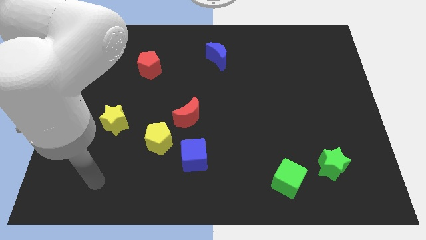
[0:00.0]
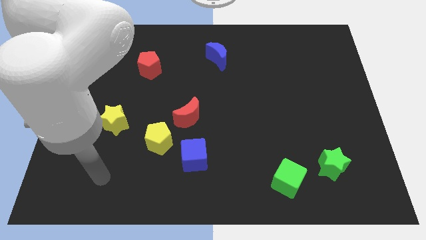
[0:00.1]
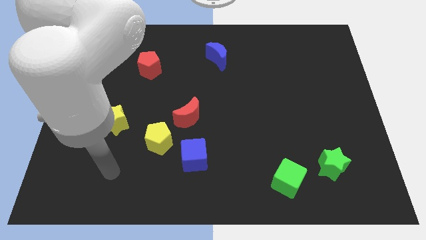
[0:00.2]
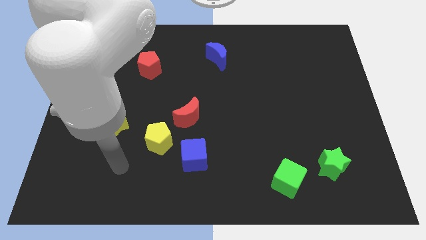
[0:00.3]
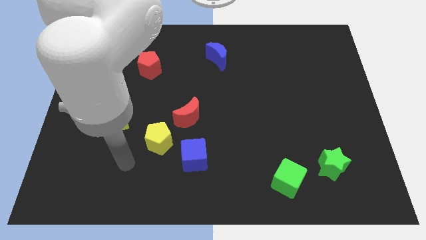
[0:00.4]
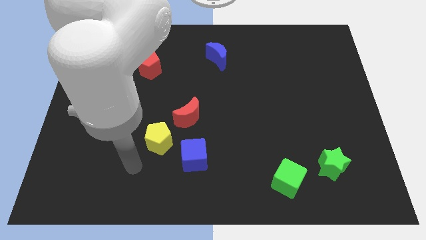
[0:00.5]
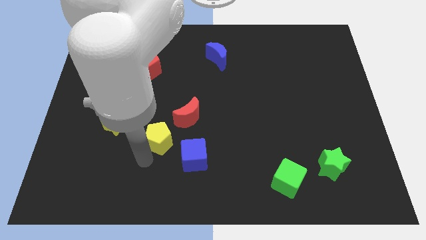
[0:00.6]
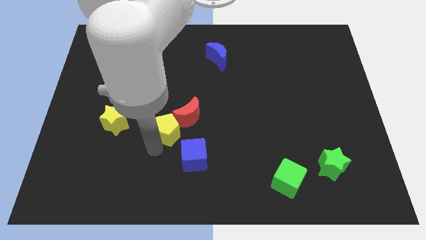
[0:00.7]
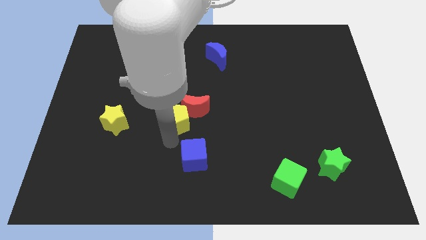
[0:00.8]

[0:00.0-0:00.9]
separate the blue cube from the yellow pentagon

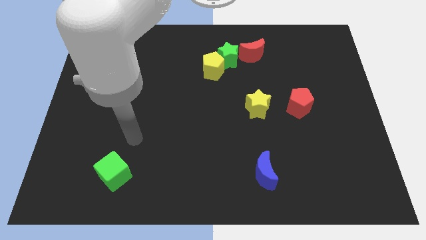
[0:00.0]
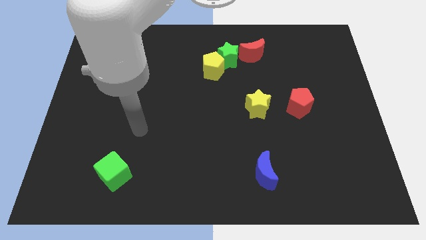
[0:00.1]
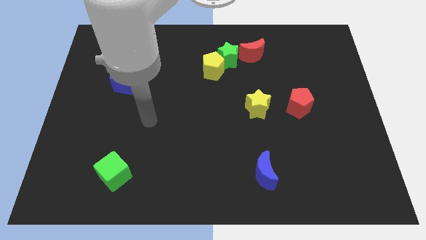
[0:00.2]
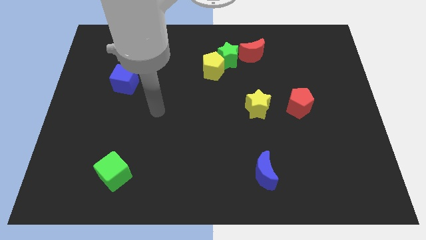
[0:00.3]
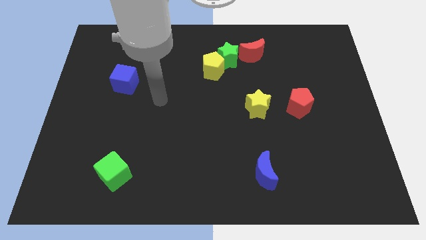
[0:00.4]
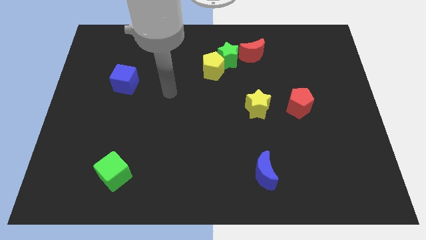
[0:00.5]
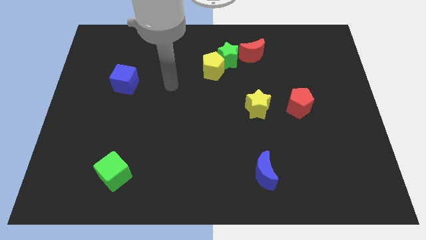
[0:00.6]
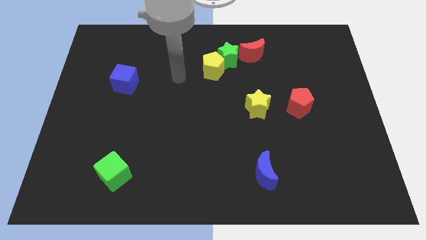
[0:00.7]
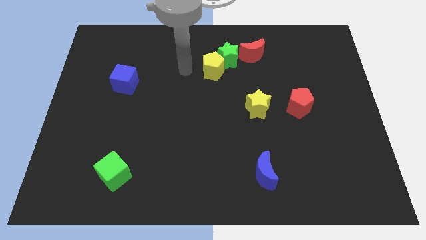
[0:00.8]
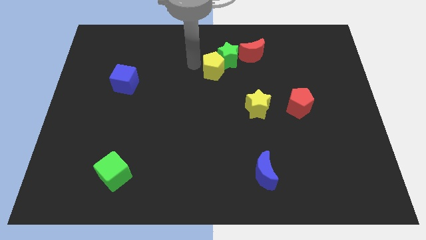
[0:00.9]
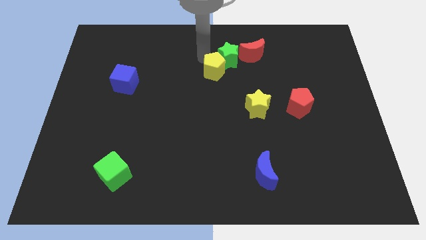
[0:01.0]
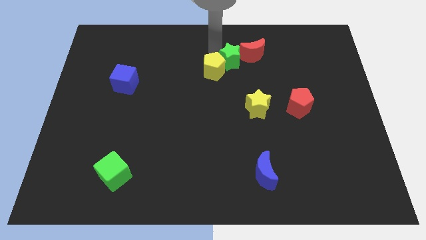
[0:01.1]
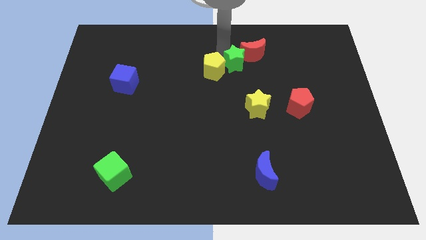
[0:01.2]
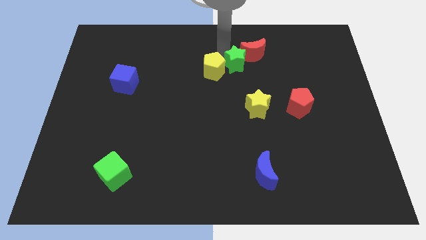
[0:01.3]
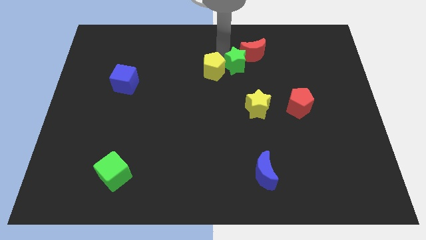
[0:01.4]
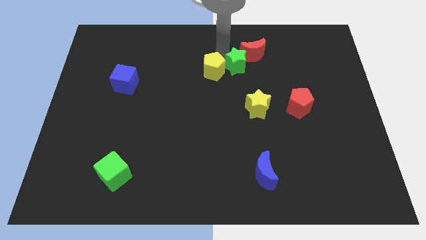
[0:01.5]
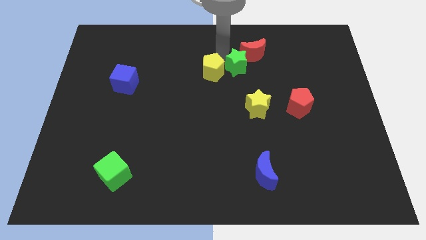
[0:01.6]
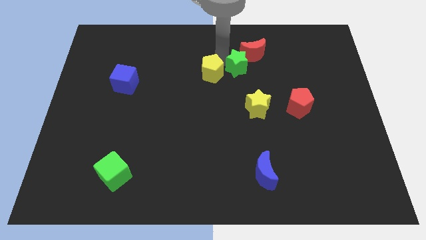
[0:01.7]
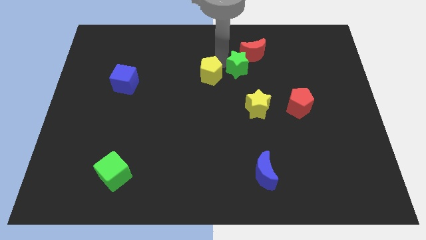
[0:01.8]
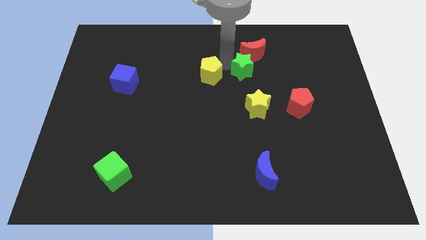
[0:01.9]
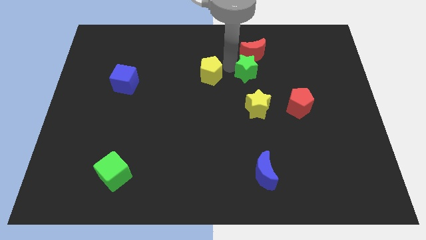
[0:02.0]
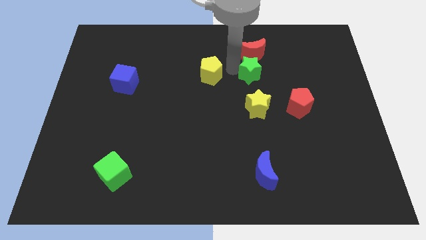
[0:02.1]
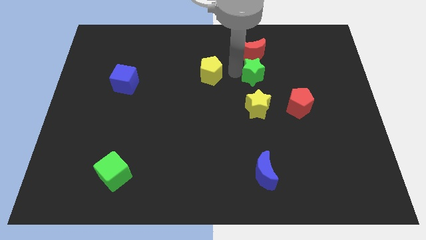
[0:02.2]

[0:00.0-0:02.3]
move the yellow pentagon away from the green star

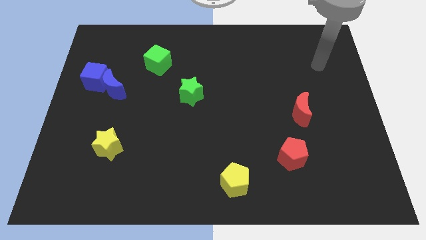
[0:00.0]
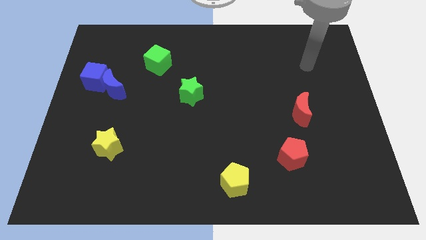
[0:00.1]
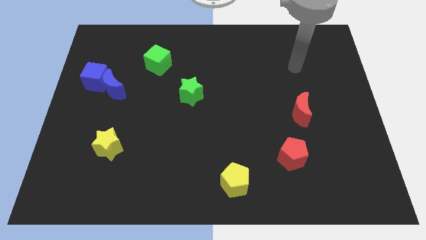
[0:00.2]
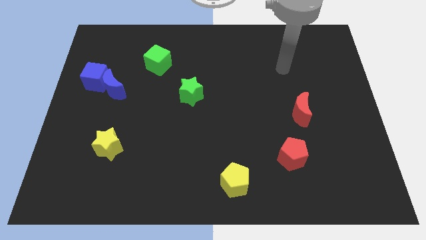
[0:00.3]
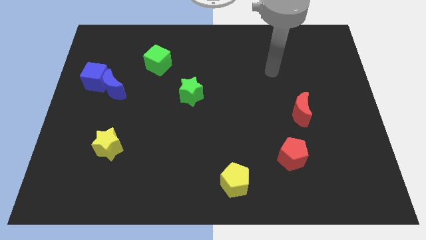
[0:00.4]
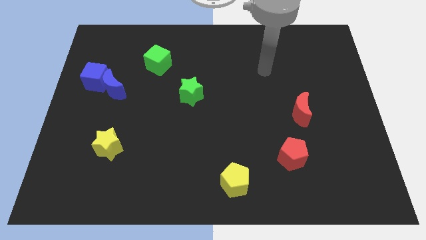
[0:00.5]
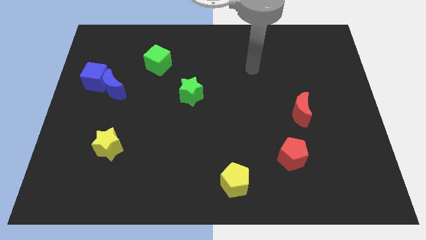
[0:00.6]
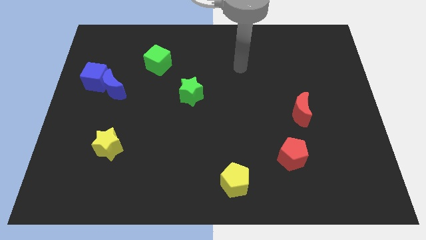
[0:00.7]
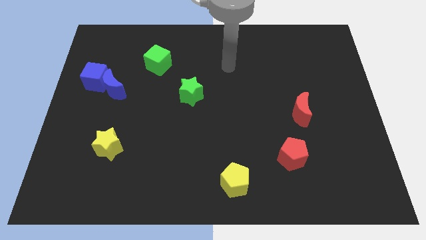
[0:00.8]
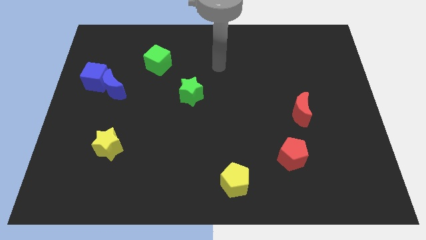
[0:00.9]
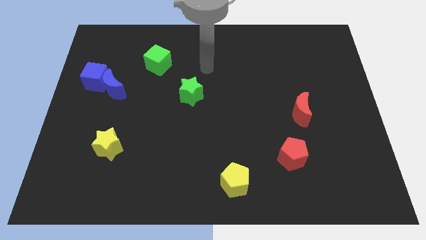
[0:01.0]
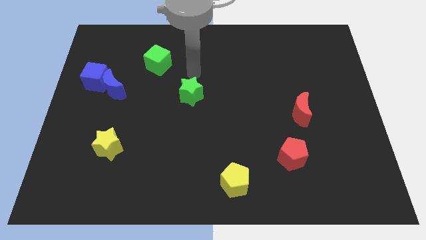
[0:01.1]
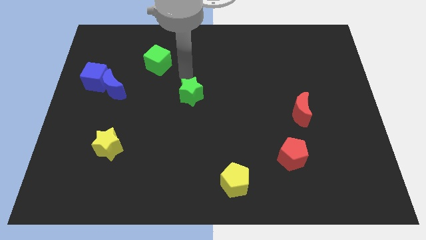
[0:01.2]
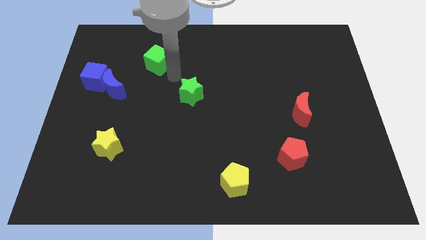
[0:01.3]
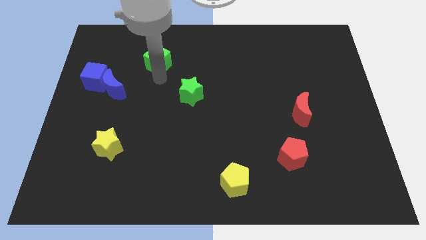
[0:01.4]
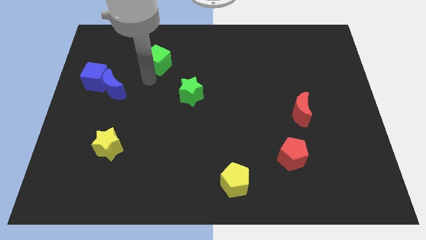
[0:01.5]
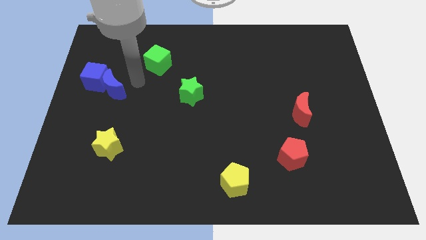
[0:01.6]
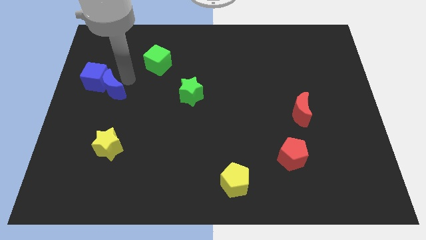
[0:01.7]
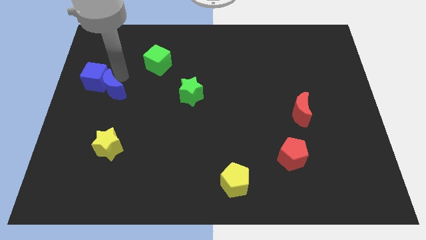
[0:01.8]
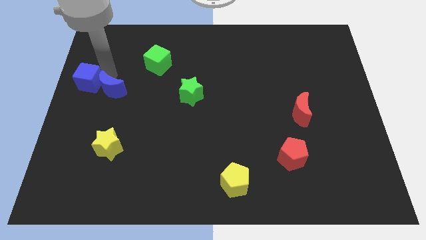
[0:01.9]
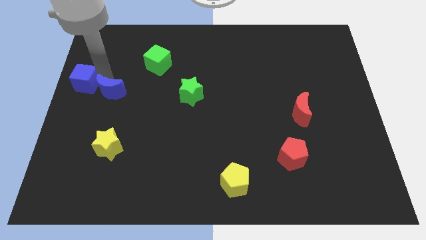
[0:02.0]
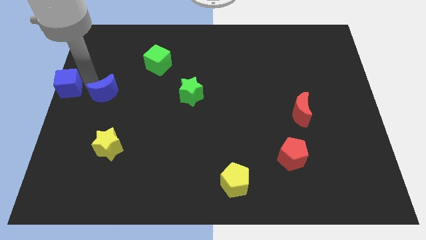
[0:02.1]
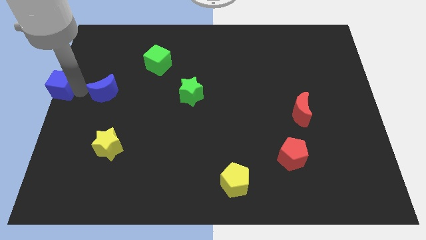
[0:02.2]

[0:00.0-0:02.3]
move the blue moon away from the blue cube

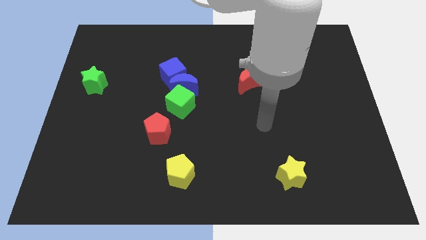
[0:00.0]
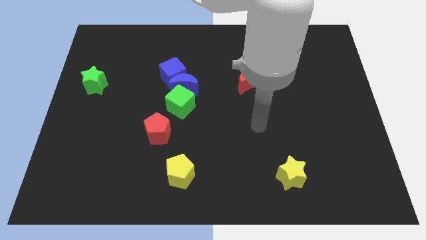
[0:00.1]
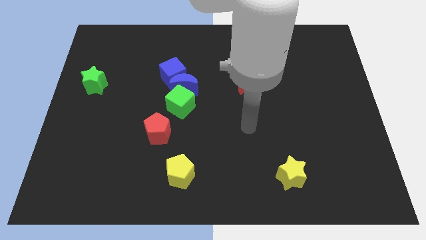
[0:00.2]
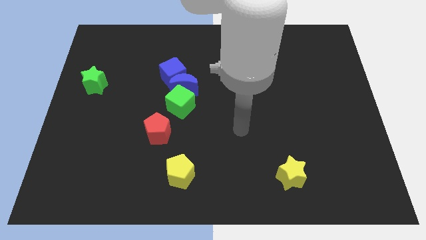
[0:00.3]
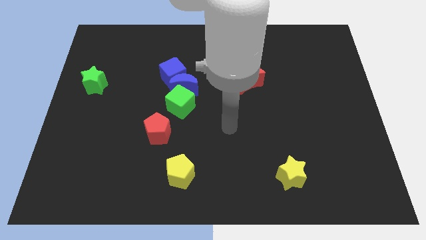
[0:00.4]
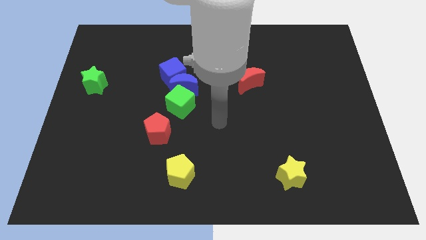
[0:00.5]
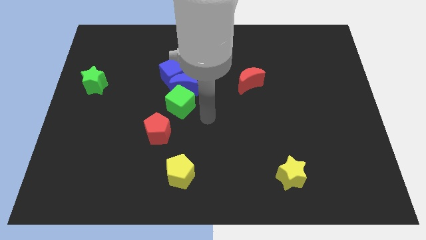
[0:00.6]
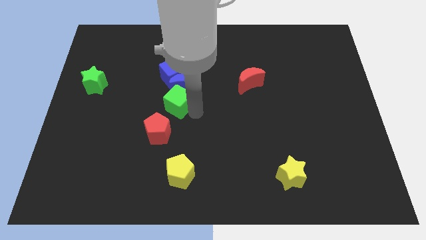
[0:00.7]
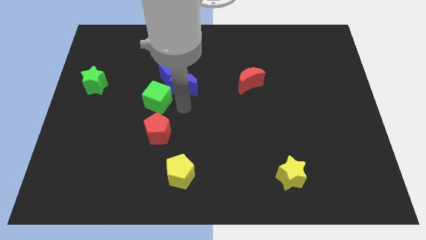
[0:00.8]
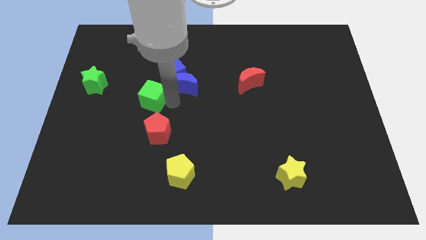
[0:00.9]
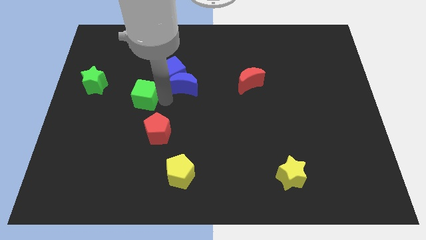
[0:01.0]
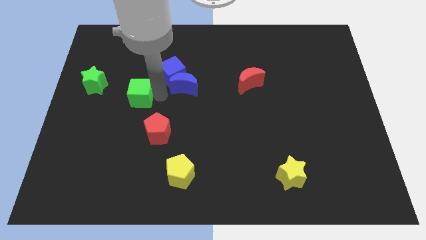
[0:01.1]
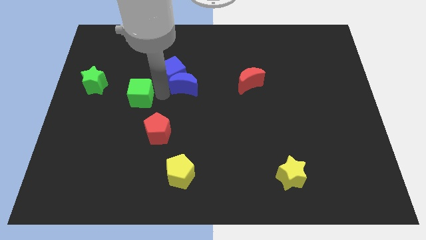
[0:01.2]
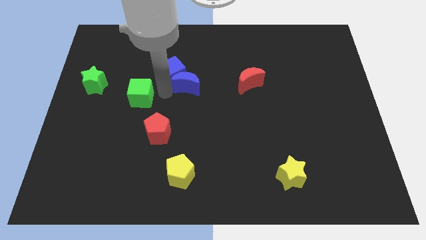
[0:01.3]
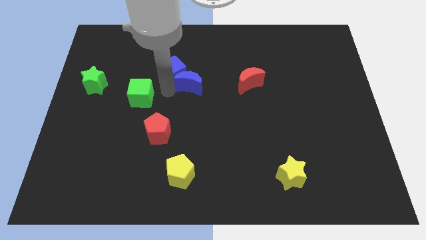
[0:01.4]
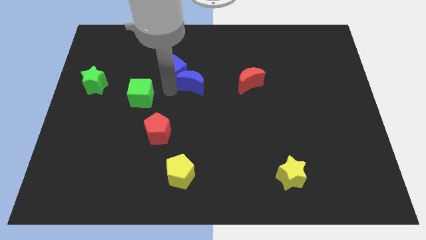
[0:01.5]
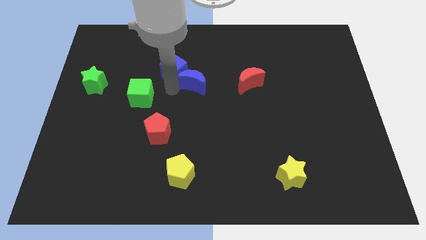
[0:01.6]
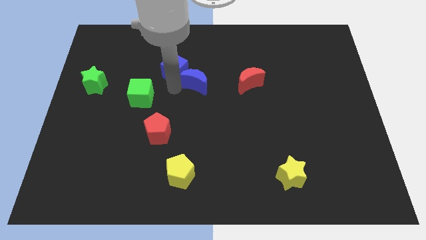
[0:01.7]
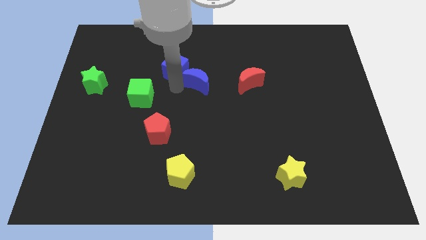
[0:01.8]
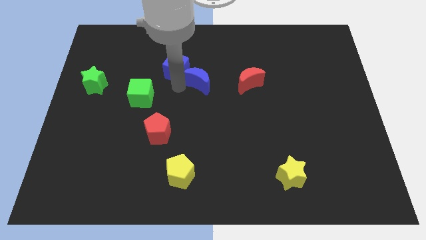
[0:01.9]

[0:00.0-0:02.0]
separate the blue moon from the blue cube and green cube

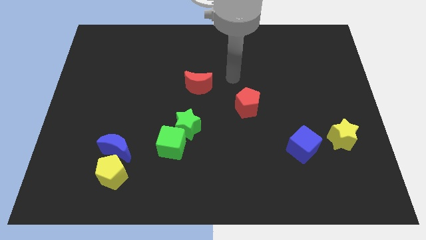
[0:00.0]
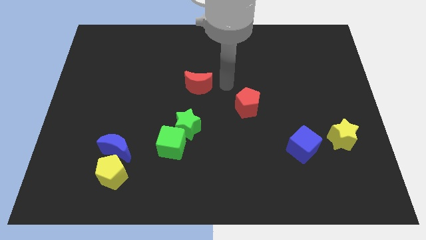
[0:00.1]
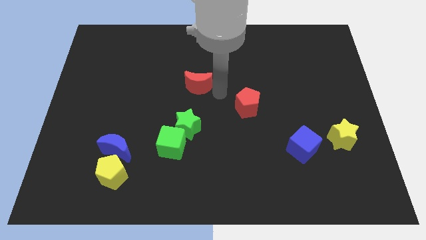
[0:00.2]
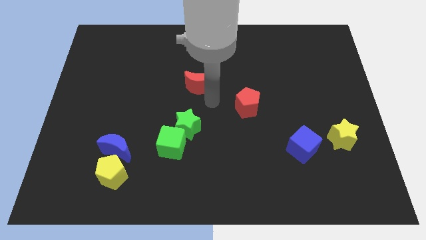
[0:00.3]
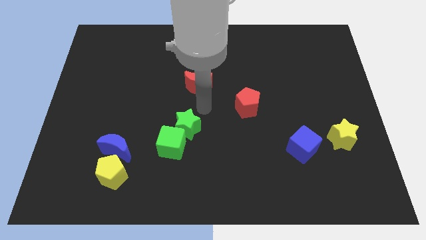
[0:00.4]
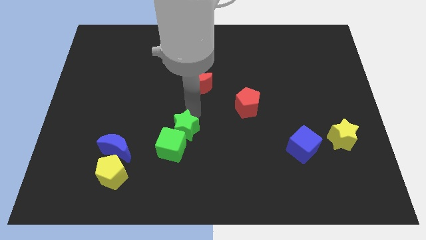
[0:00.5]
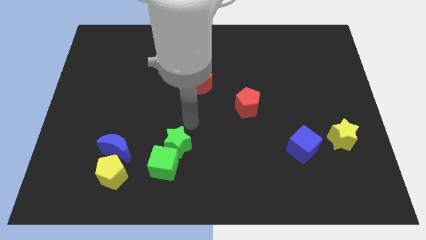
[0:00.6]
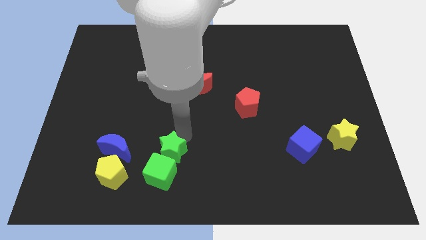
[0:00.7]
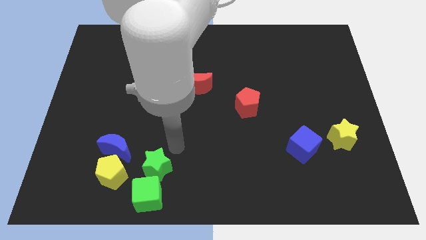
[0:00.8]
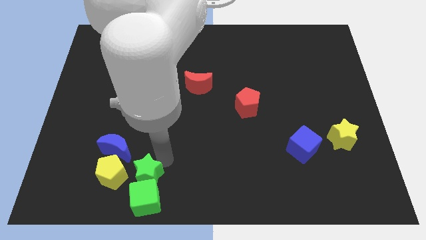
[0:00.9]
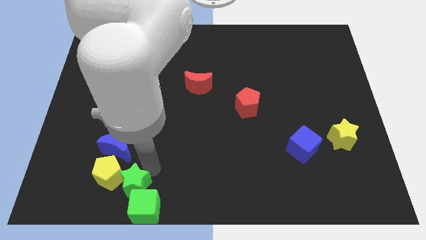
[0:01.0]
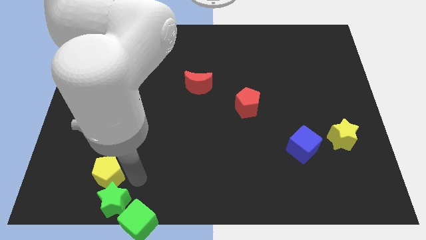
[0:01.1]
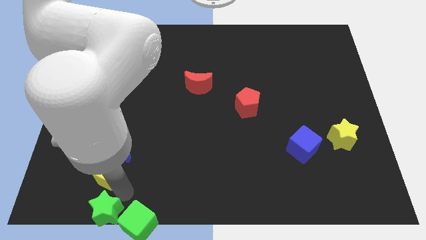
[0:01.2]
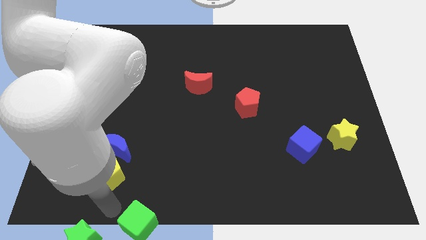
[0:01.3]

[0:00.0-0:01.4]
move the green cube away from the green star

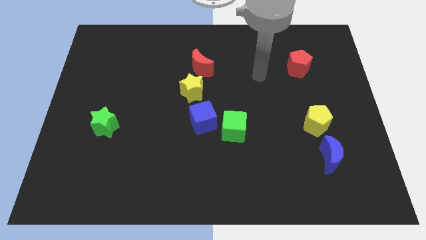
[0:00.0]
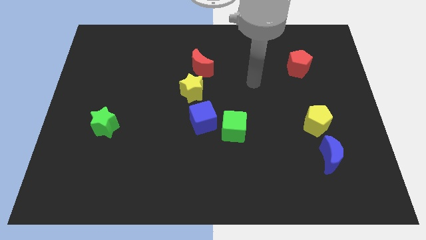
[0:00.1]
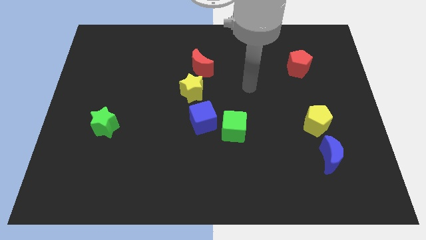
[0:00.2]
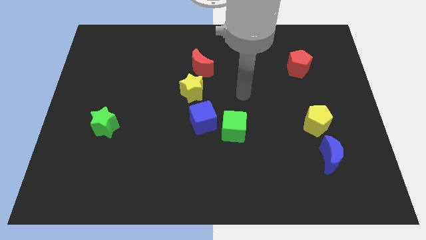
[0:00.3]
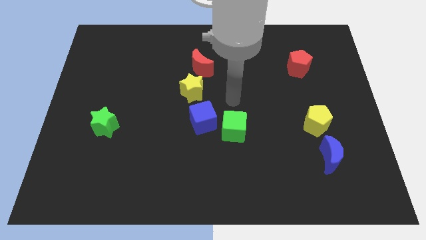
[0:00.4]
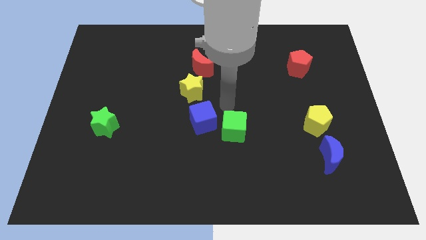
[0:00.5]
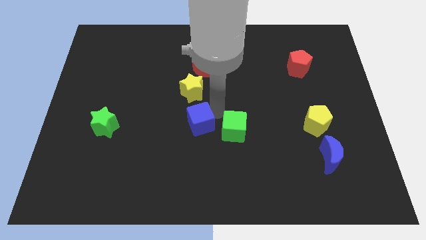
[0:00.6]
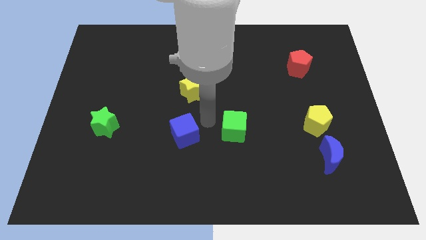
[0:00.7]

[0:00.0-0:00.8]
move the green cube away from the blue cube
